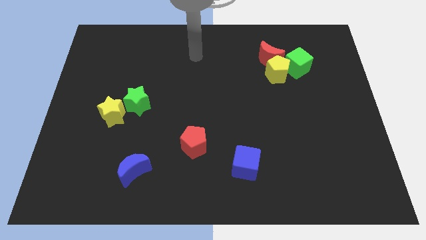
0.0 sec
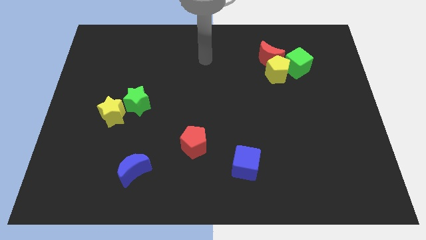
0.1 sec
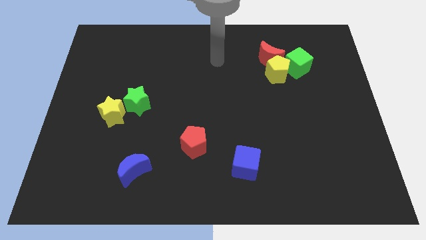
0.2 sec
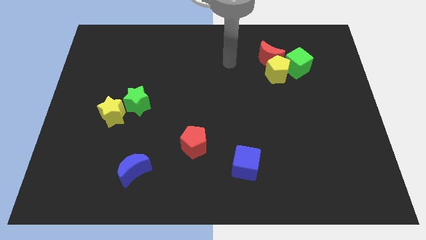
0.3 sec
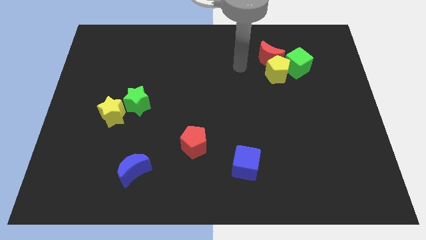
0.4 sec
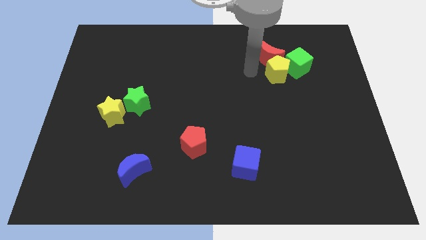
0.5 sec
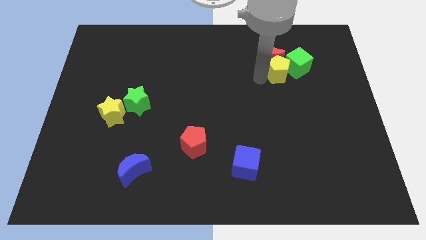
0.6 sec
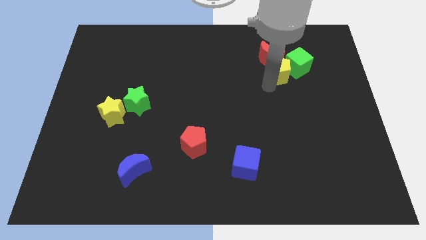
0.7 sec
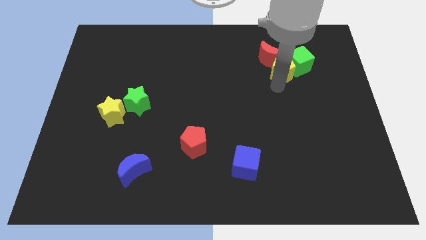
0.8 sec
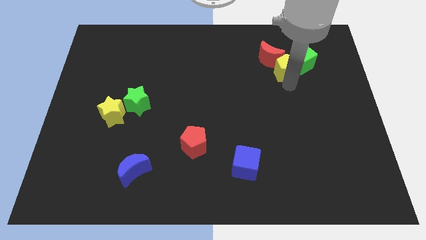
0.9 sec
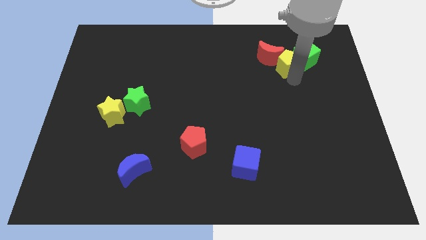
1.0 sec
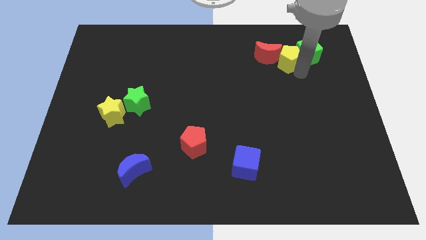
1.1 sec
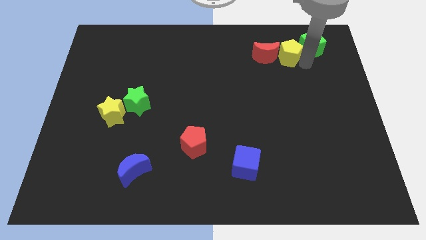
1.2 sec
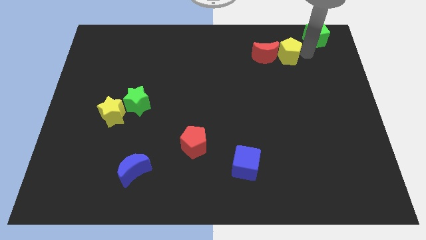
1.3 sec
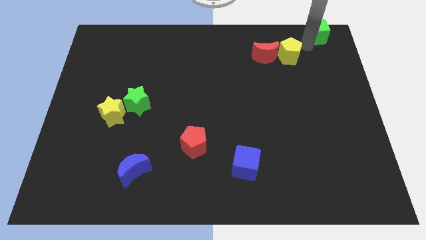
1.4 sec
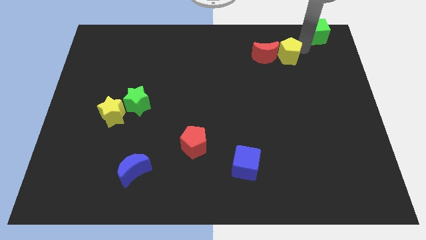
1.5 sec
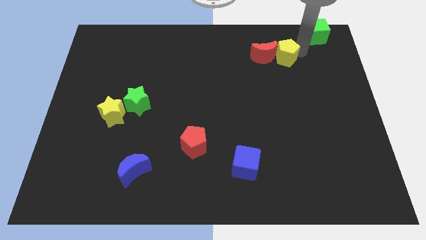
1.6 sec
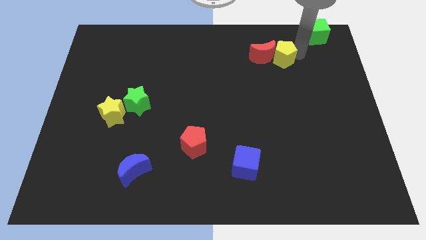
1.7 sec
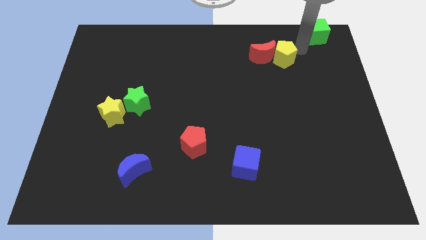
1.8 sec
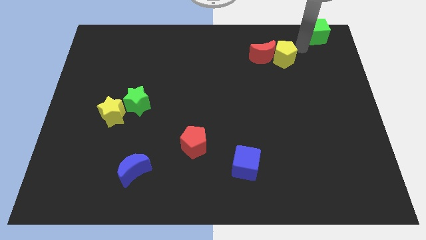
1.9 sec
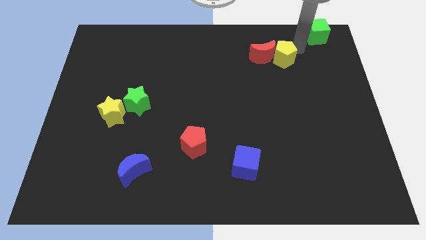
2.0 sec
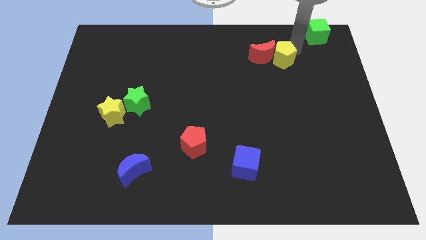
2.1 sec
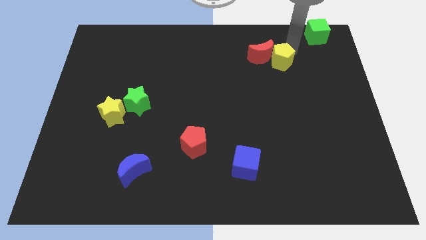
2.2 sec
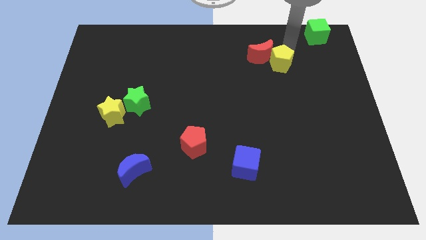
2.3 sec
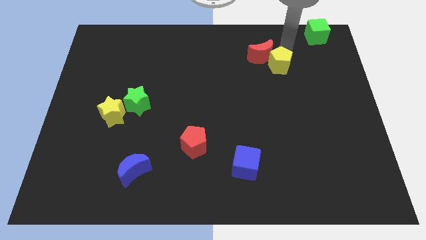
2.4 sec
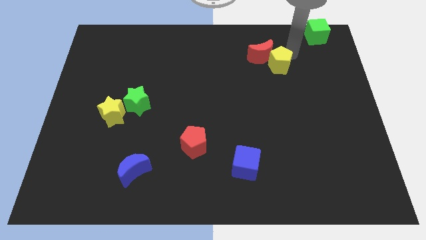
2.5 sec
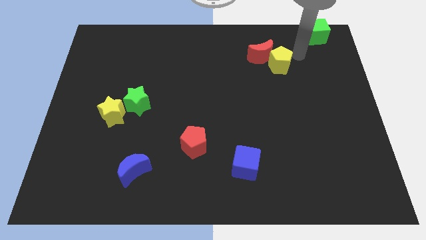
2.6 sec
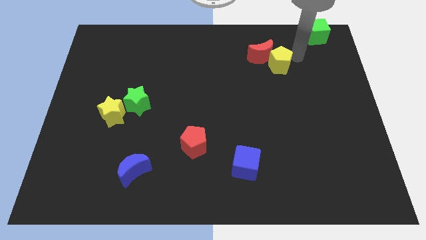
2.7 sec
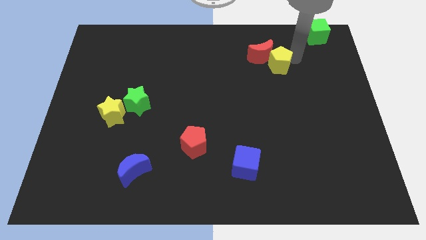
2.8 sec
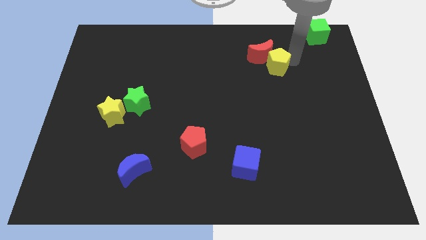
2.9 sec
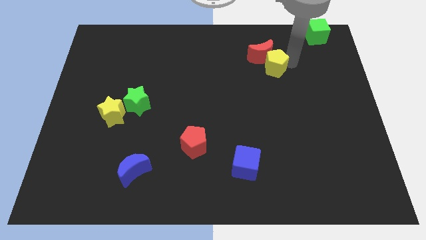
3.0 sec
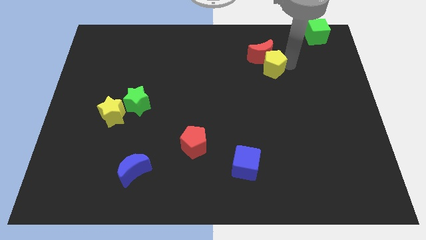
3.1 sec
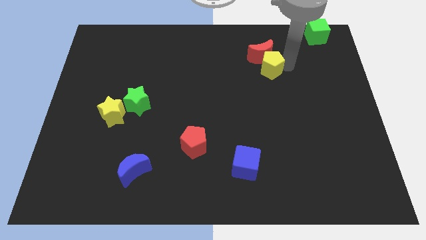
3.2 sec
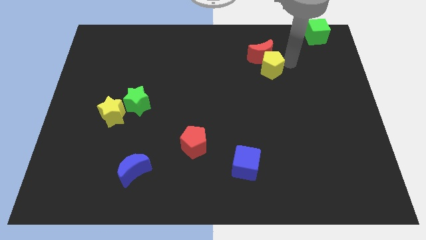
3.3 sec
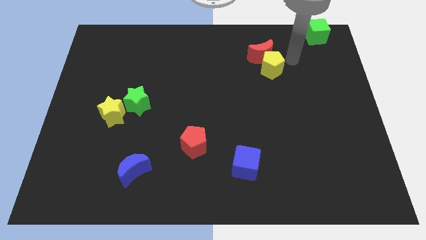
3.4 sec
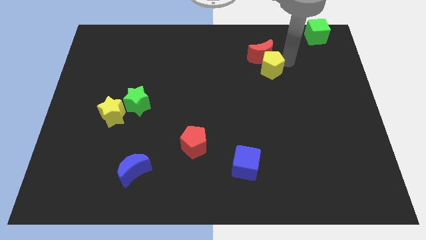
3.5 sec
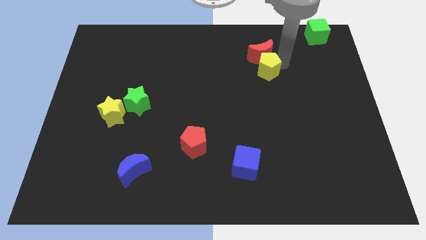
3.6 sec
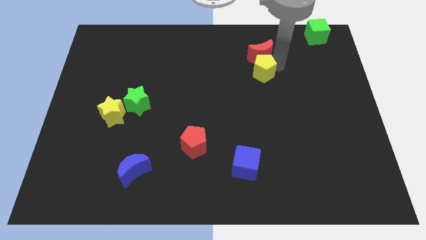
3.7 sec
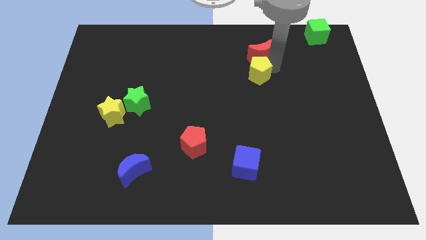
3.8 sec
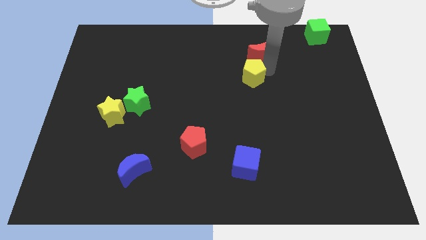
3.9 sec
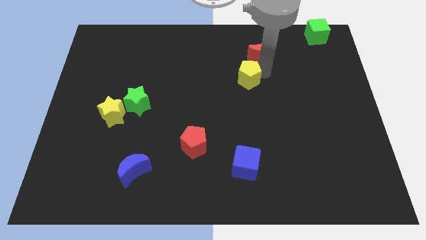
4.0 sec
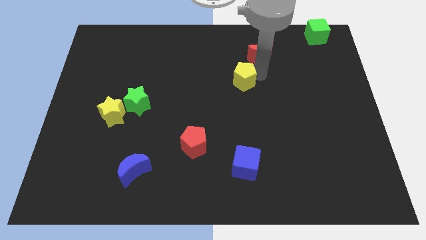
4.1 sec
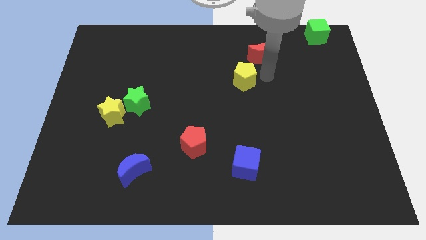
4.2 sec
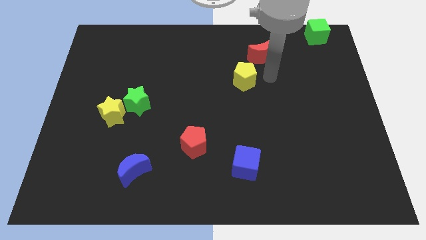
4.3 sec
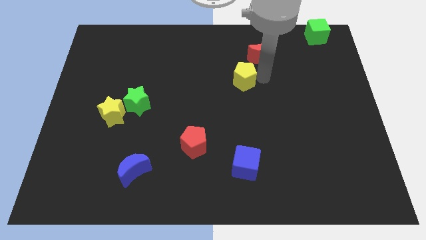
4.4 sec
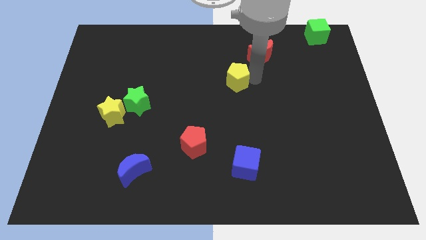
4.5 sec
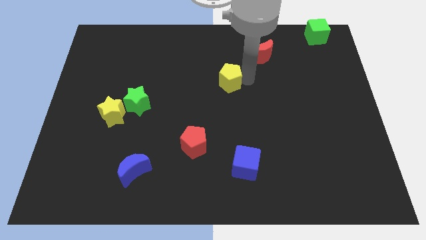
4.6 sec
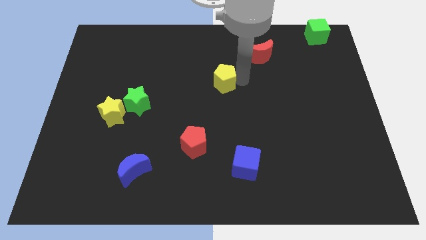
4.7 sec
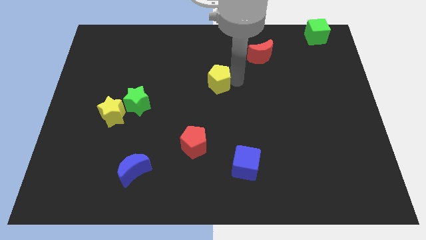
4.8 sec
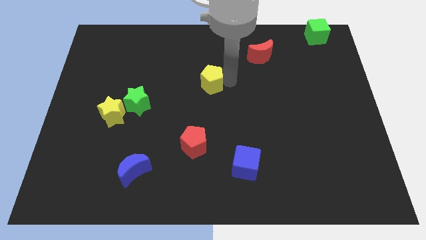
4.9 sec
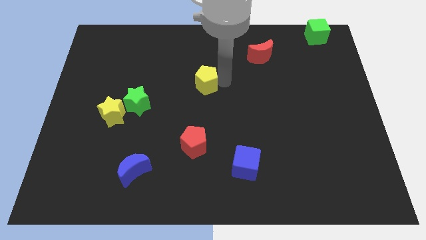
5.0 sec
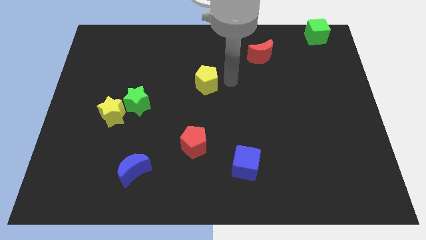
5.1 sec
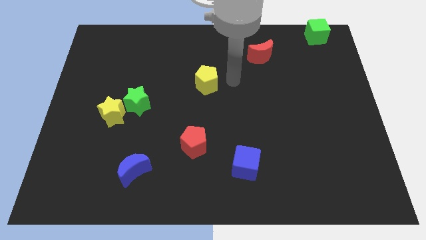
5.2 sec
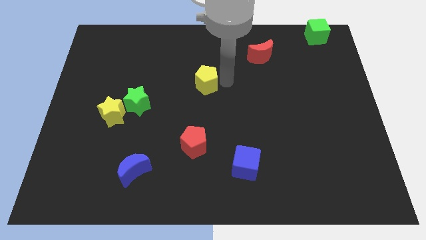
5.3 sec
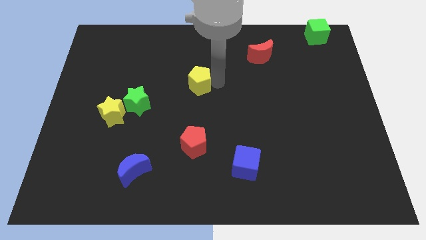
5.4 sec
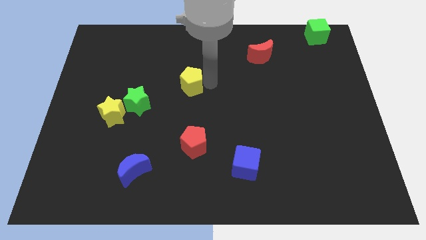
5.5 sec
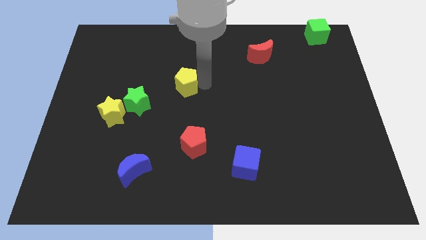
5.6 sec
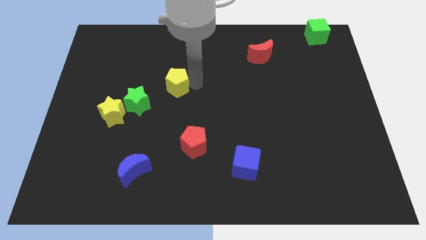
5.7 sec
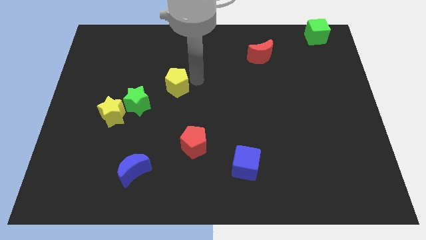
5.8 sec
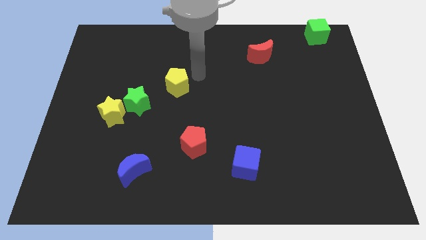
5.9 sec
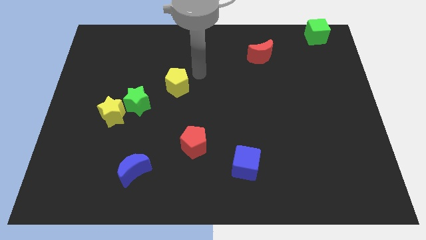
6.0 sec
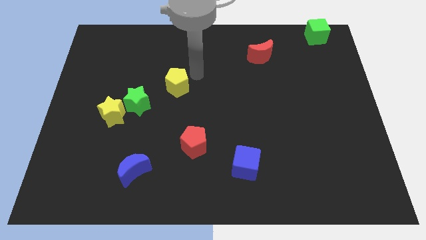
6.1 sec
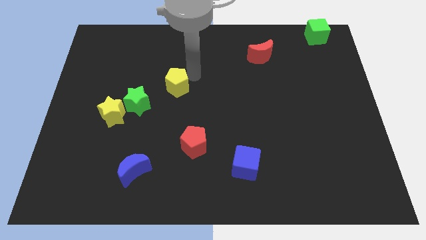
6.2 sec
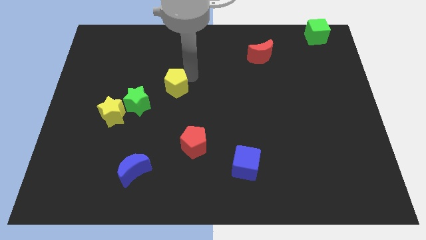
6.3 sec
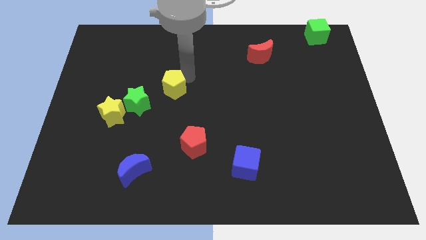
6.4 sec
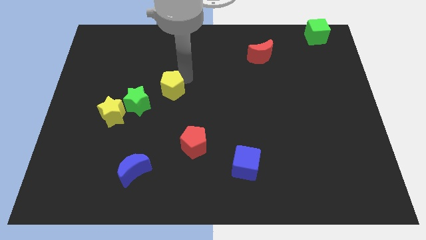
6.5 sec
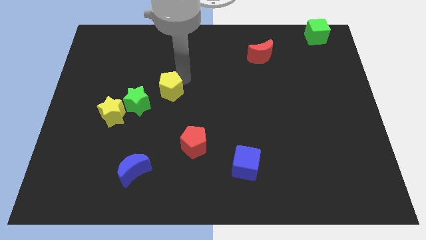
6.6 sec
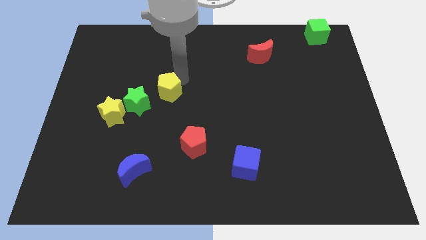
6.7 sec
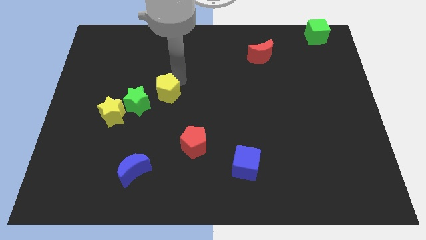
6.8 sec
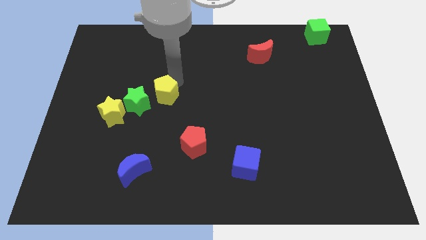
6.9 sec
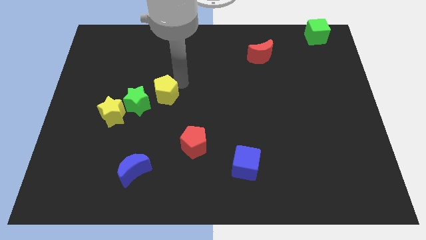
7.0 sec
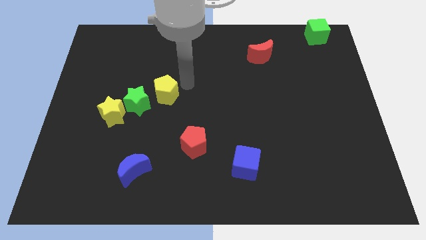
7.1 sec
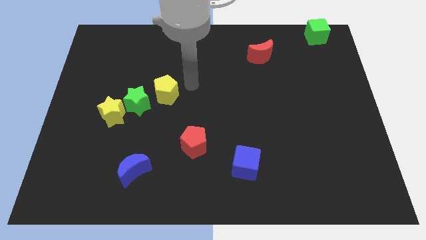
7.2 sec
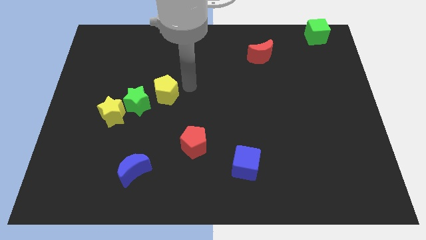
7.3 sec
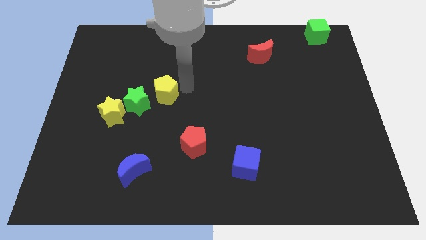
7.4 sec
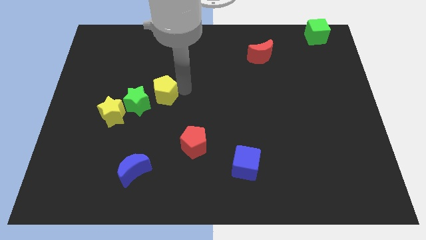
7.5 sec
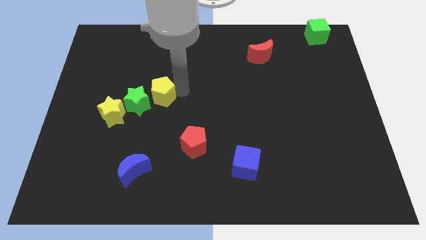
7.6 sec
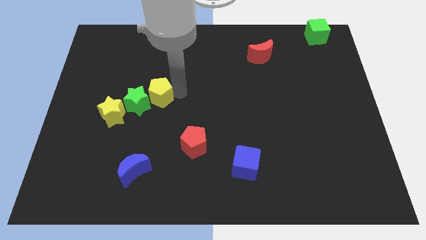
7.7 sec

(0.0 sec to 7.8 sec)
put the yellow pentagon next to the green star
